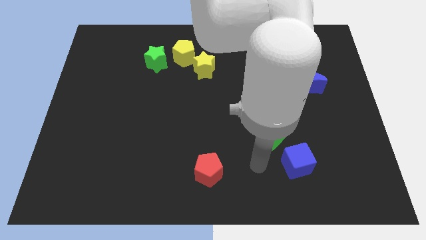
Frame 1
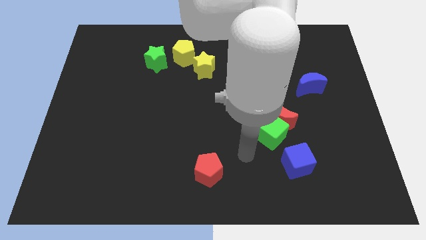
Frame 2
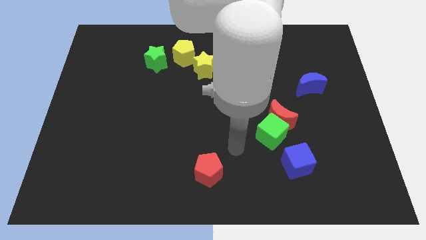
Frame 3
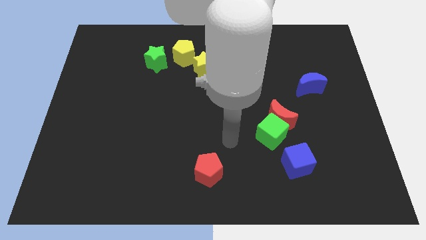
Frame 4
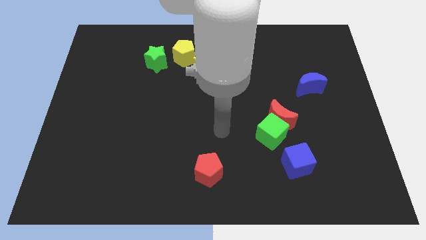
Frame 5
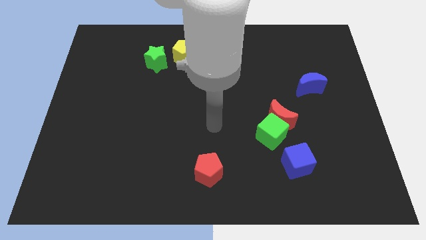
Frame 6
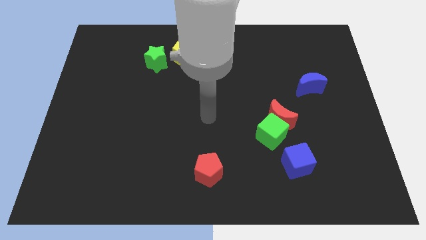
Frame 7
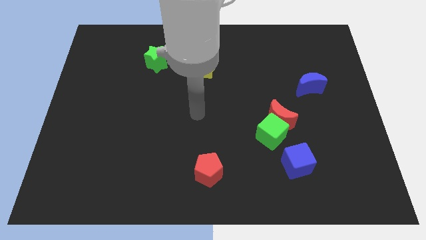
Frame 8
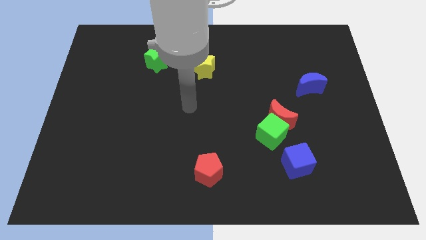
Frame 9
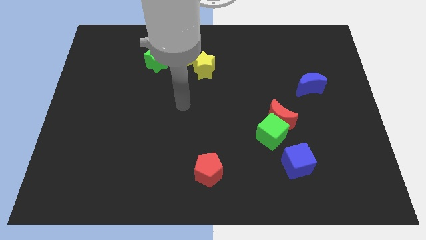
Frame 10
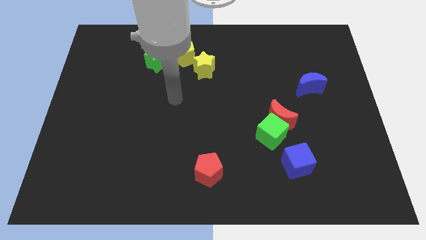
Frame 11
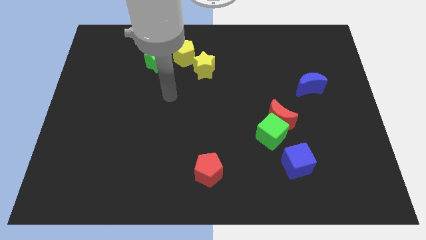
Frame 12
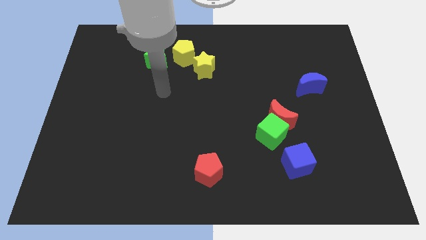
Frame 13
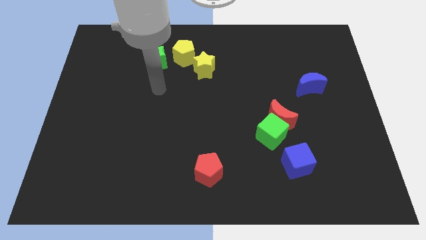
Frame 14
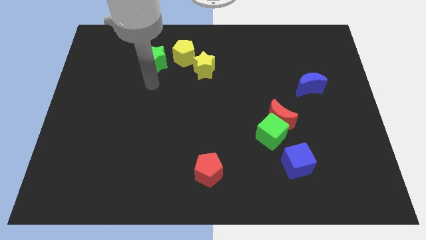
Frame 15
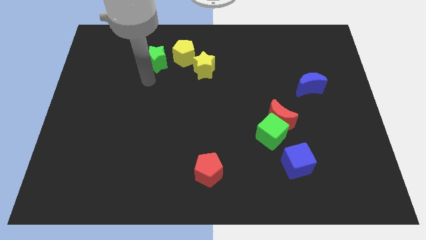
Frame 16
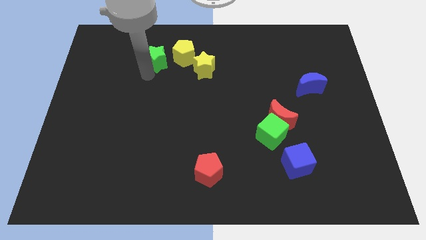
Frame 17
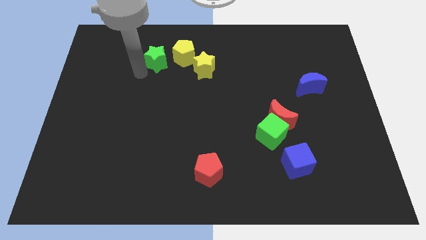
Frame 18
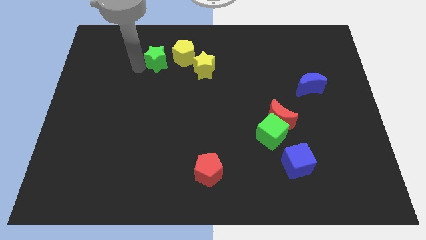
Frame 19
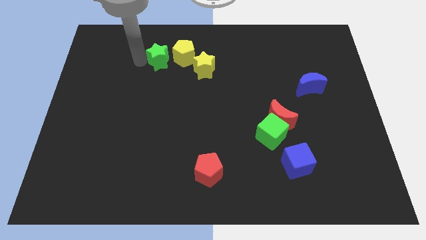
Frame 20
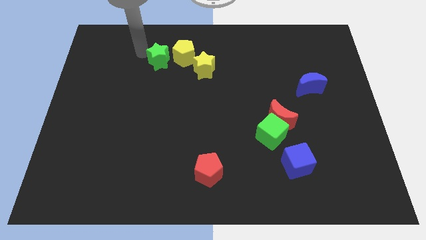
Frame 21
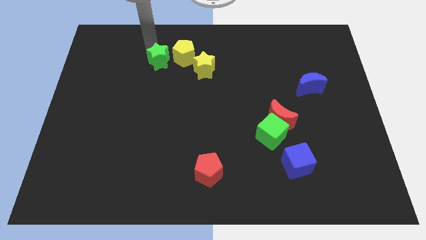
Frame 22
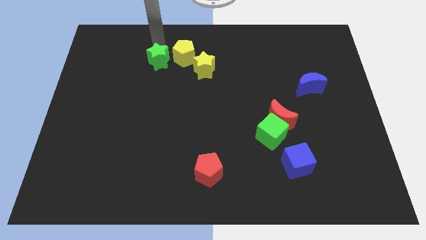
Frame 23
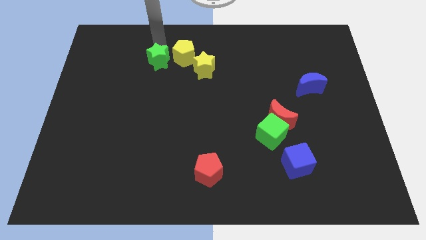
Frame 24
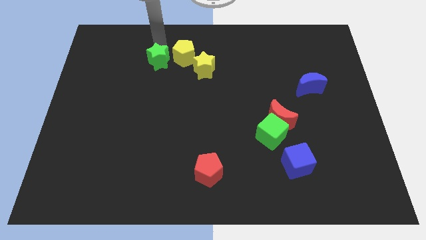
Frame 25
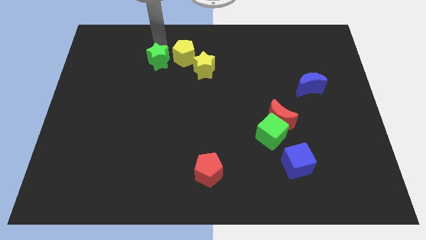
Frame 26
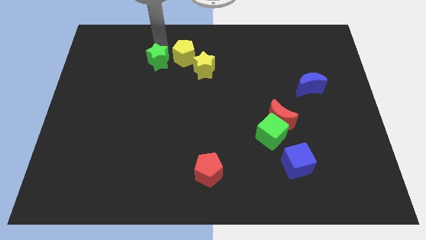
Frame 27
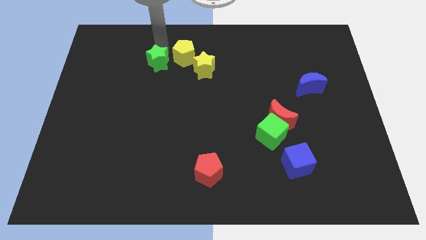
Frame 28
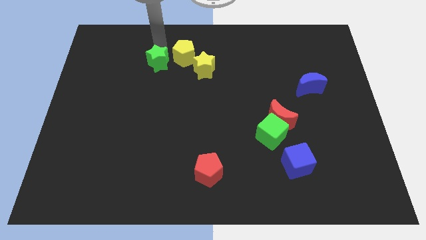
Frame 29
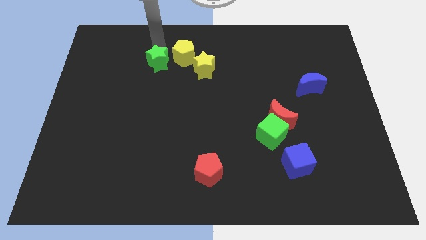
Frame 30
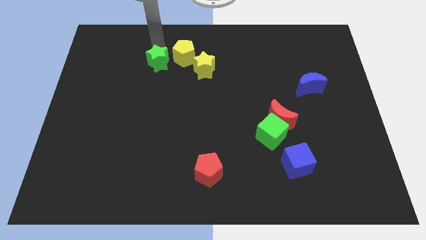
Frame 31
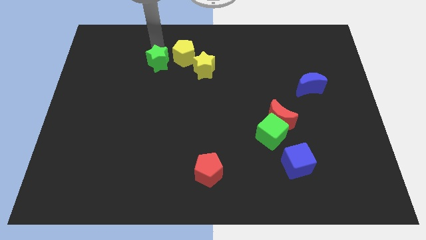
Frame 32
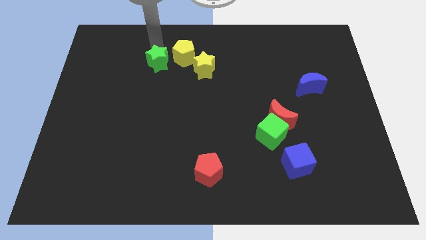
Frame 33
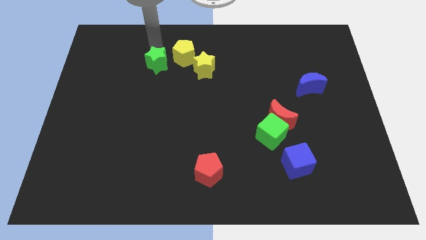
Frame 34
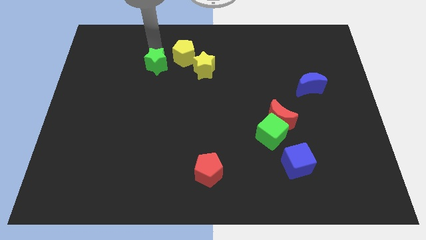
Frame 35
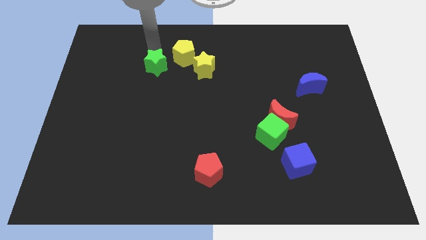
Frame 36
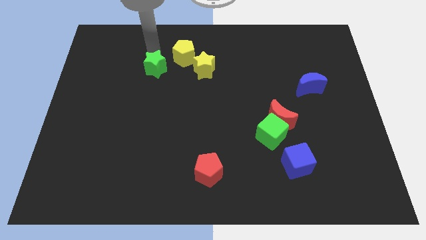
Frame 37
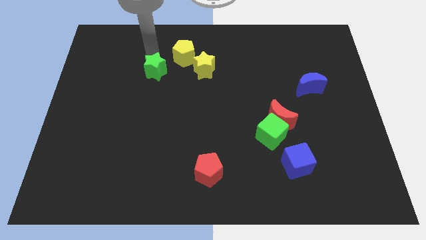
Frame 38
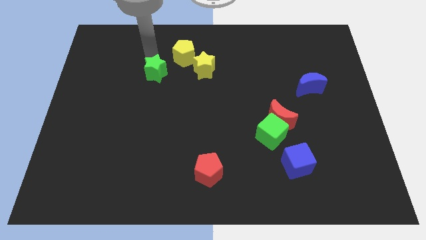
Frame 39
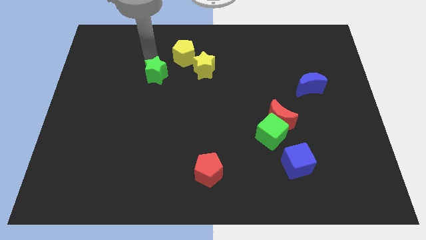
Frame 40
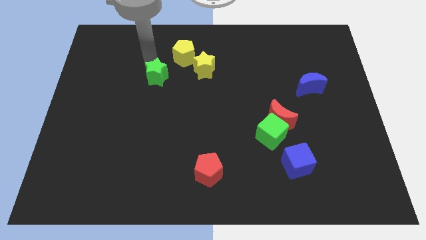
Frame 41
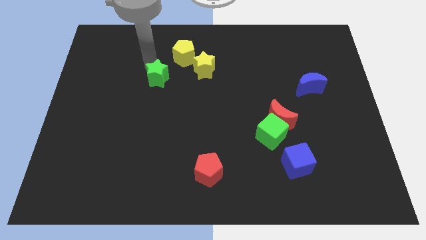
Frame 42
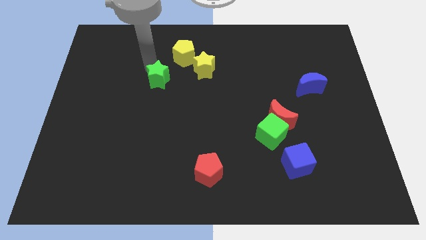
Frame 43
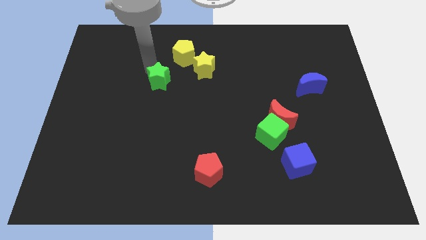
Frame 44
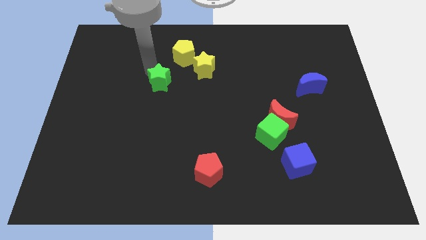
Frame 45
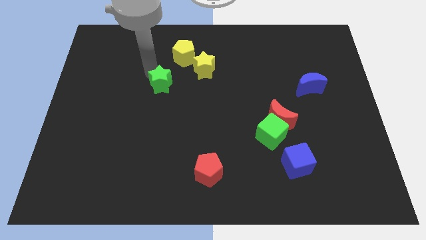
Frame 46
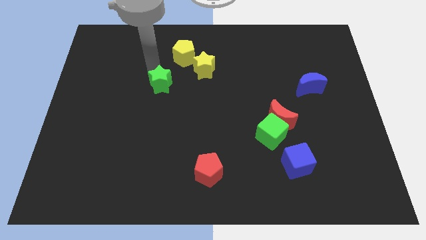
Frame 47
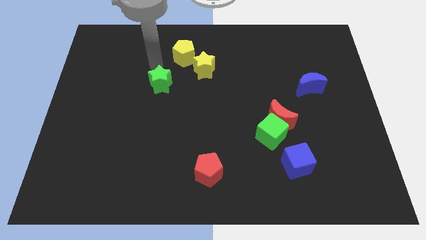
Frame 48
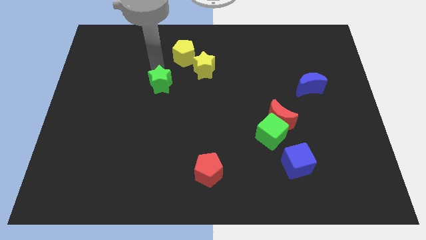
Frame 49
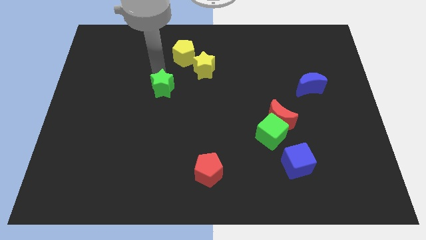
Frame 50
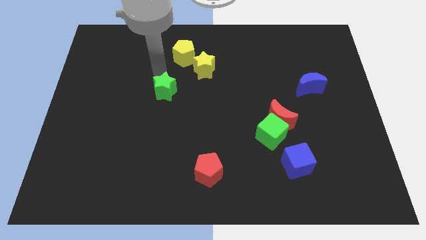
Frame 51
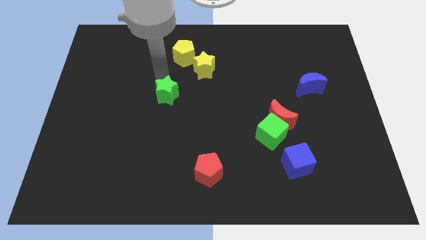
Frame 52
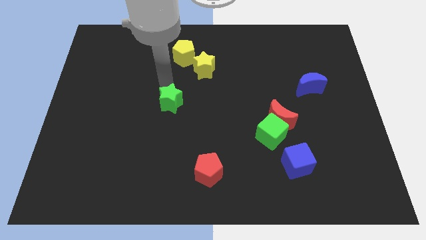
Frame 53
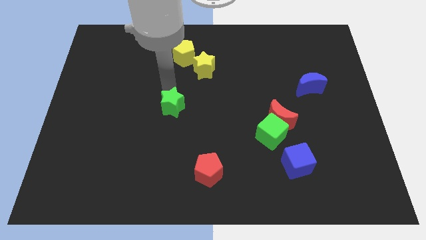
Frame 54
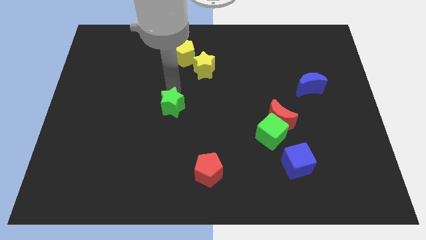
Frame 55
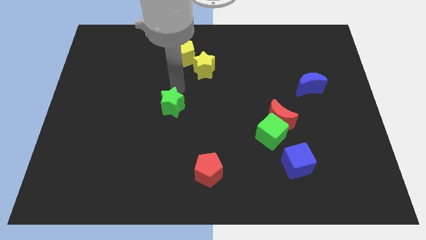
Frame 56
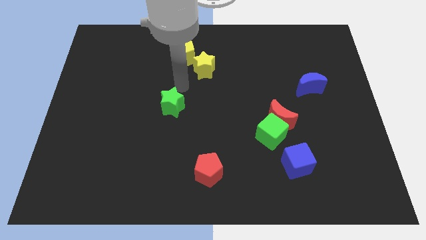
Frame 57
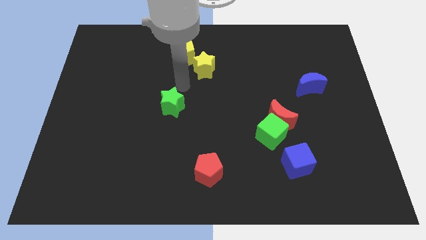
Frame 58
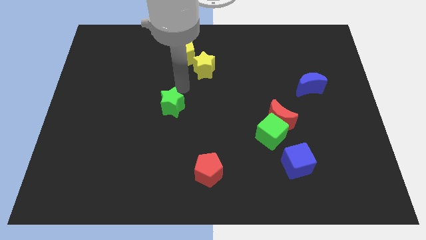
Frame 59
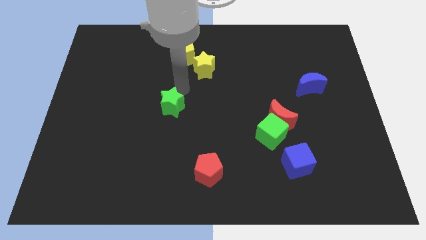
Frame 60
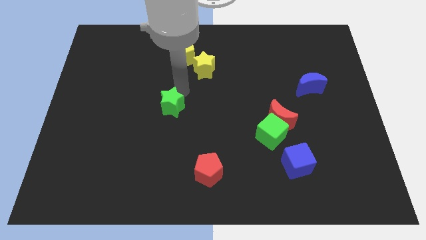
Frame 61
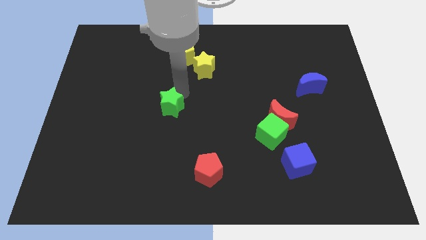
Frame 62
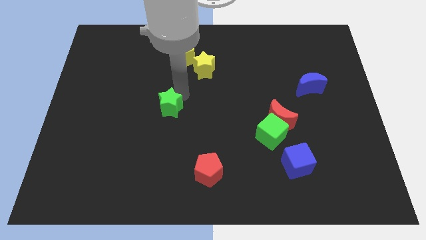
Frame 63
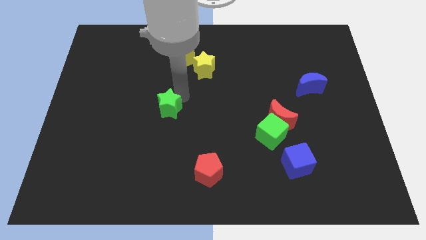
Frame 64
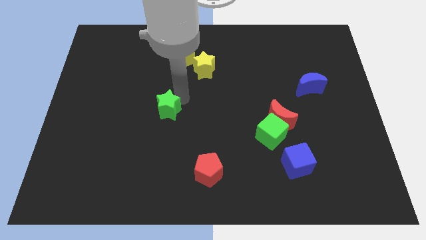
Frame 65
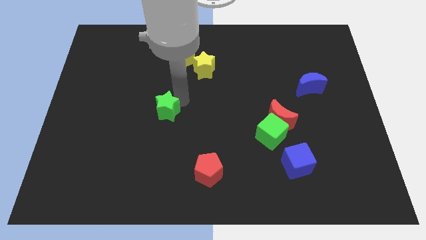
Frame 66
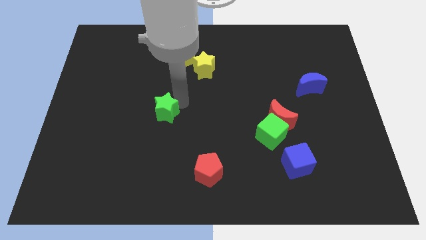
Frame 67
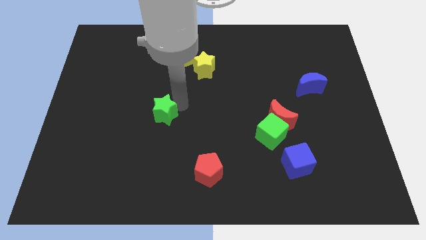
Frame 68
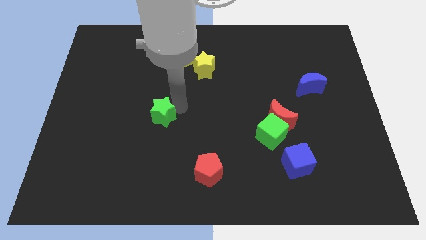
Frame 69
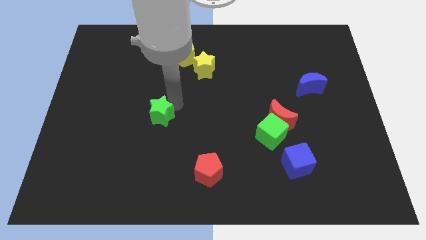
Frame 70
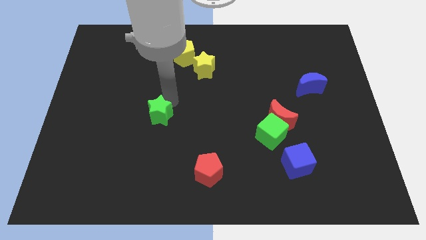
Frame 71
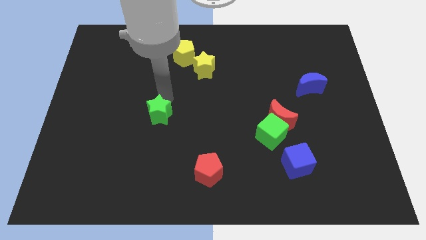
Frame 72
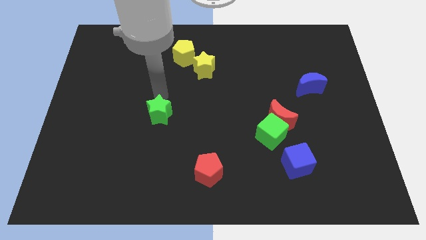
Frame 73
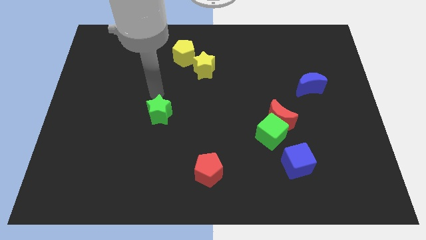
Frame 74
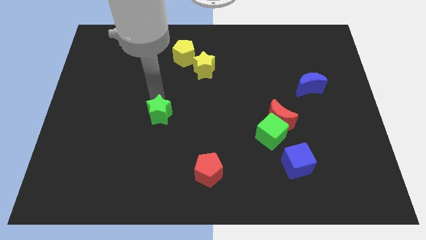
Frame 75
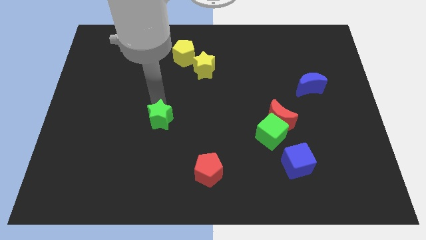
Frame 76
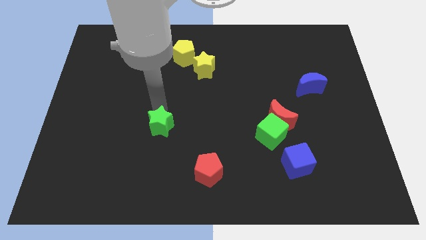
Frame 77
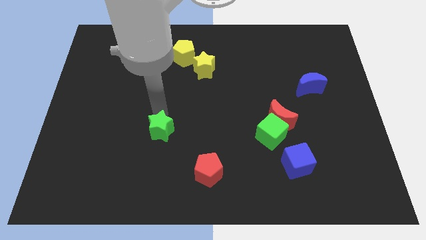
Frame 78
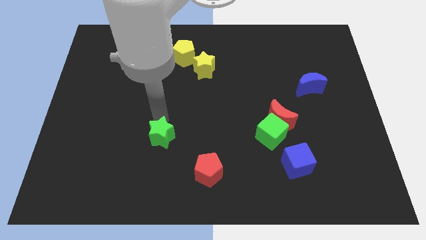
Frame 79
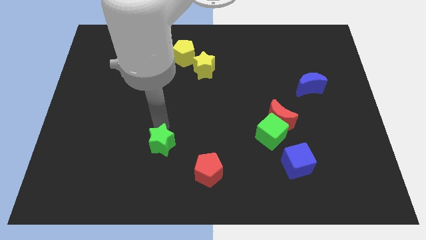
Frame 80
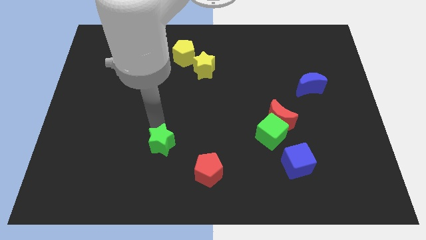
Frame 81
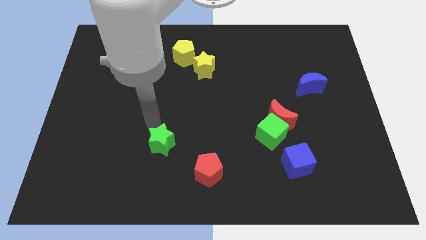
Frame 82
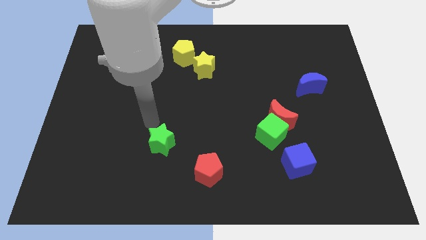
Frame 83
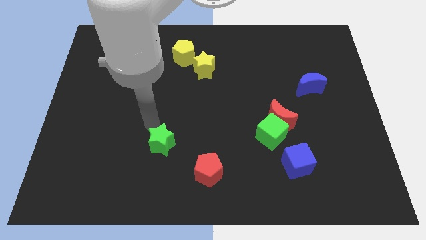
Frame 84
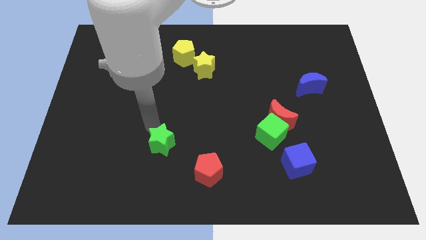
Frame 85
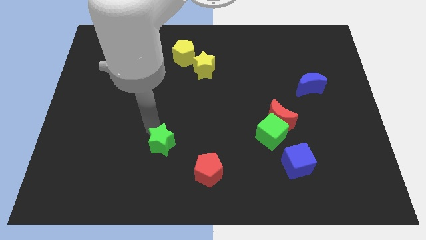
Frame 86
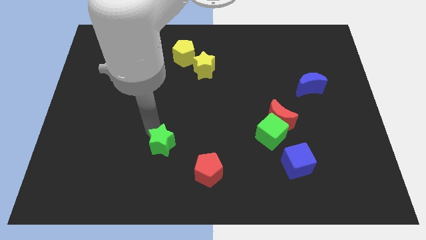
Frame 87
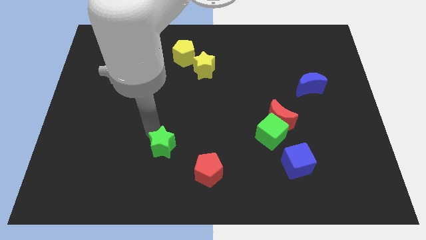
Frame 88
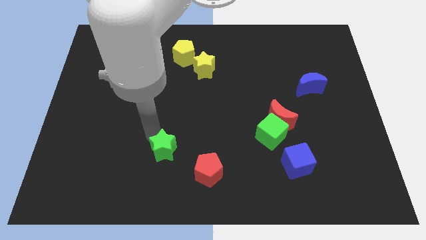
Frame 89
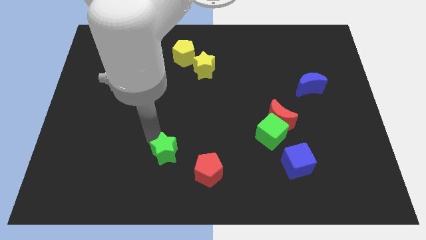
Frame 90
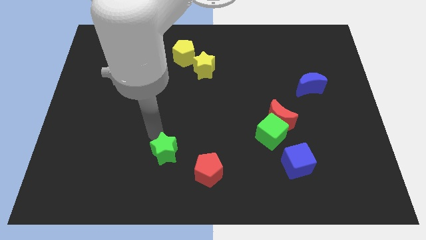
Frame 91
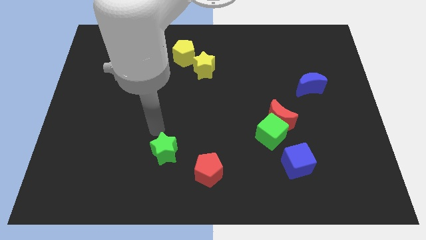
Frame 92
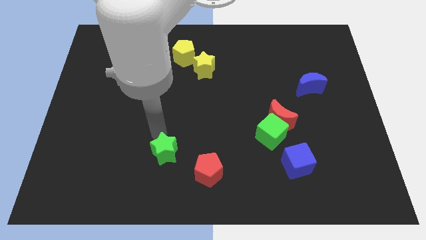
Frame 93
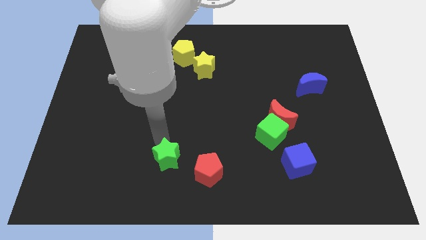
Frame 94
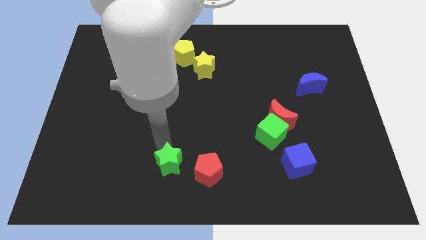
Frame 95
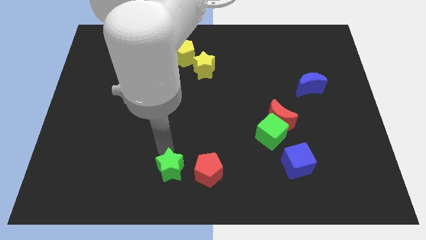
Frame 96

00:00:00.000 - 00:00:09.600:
put the green star to the bottom
